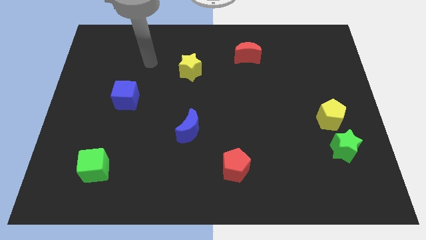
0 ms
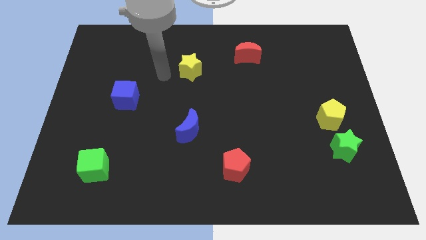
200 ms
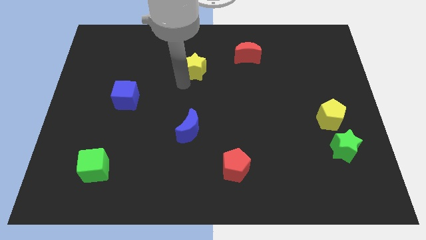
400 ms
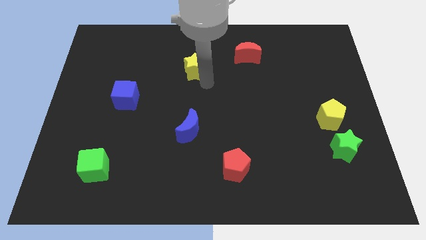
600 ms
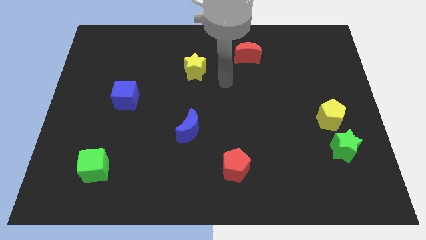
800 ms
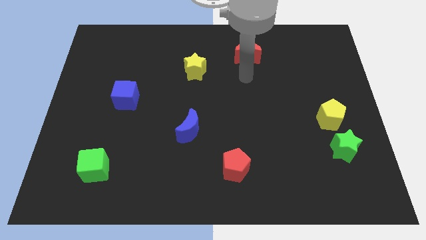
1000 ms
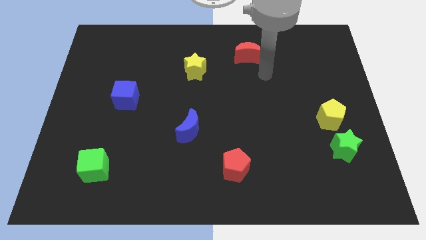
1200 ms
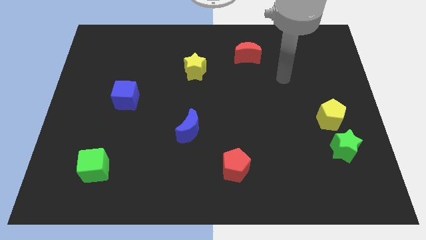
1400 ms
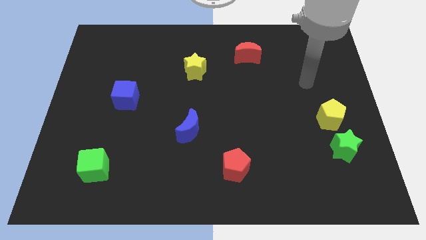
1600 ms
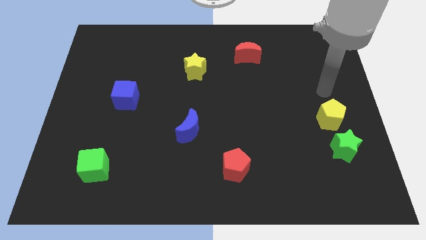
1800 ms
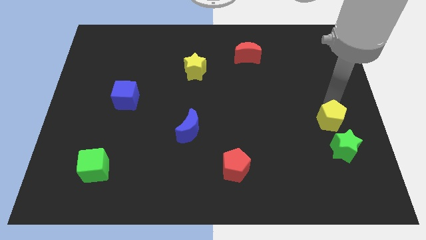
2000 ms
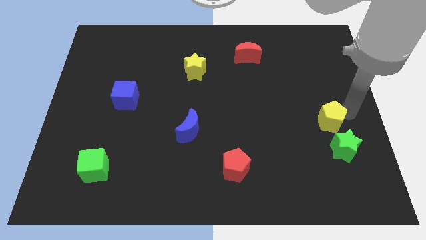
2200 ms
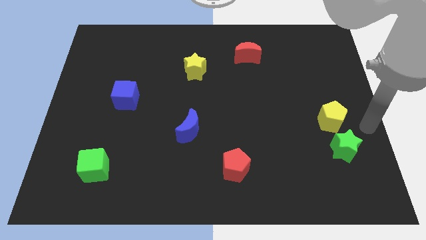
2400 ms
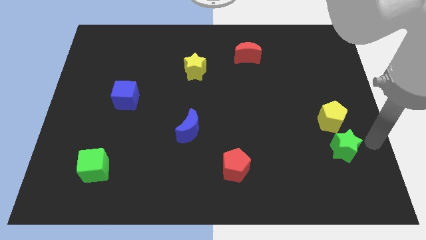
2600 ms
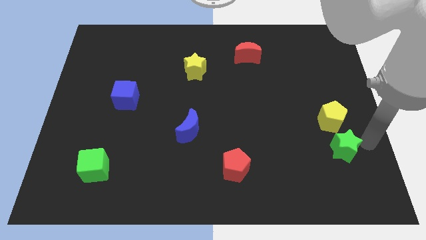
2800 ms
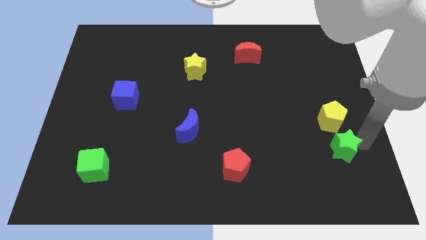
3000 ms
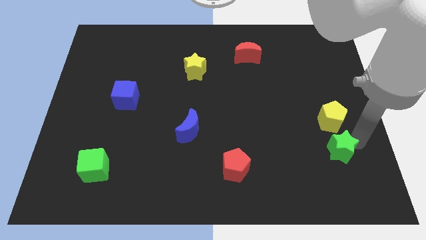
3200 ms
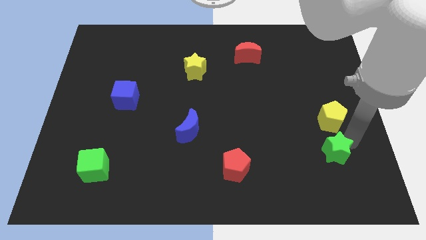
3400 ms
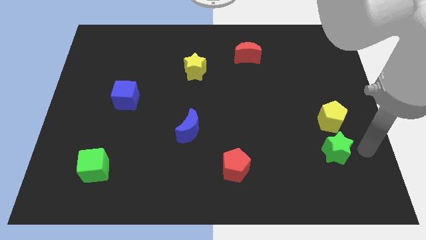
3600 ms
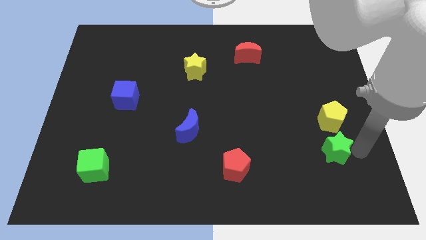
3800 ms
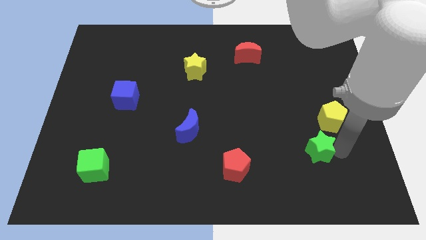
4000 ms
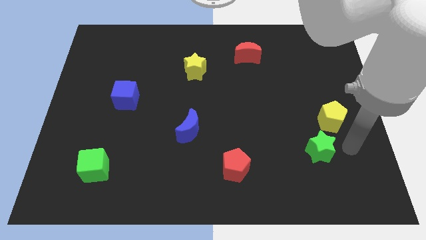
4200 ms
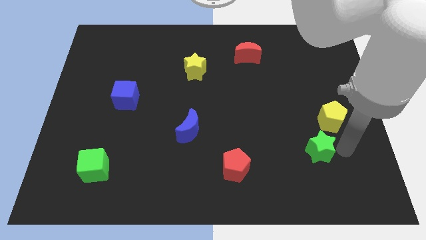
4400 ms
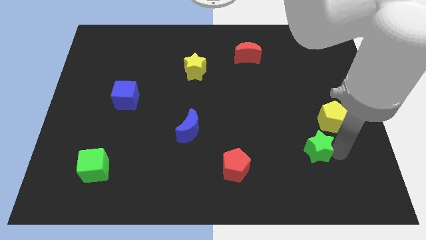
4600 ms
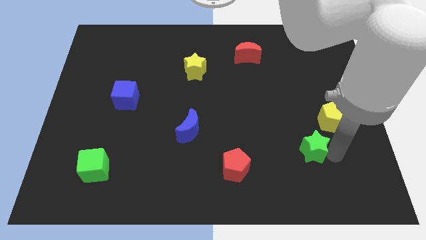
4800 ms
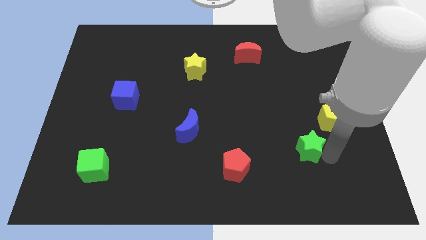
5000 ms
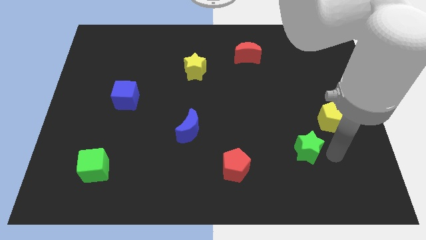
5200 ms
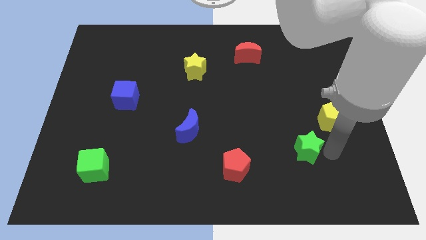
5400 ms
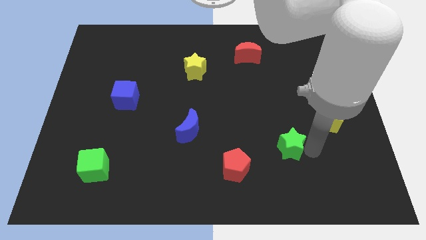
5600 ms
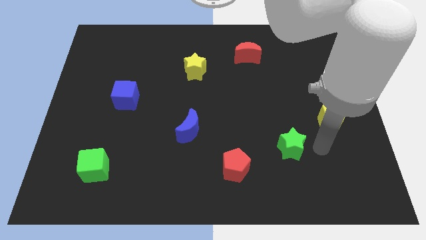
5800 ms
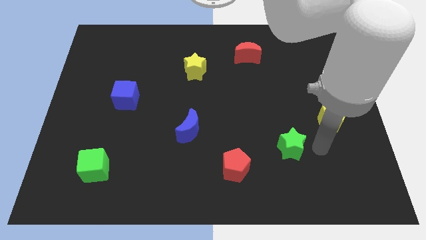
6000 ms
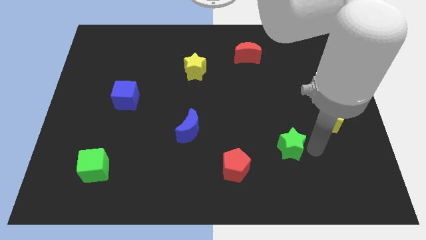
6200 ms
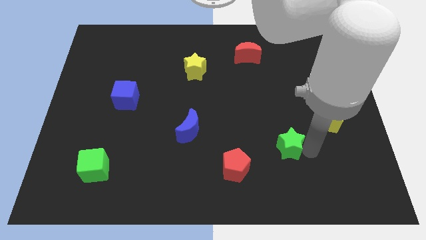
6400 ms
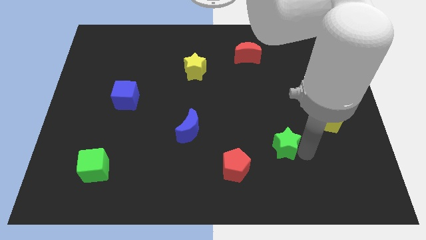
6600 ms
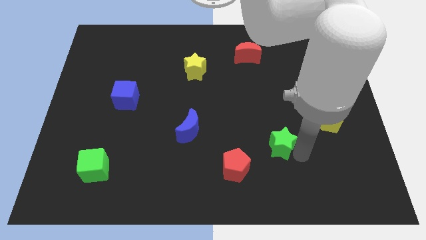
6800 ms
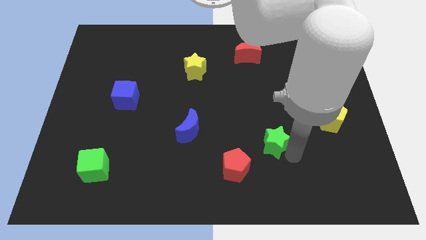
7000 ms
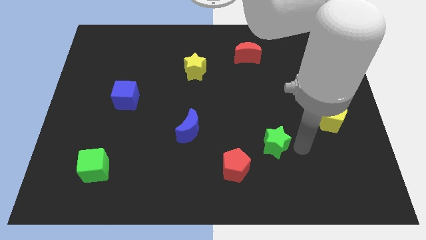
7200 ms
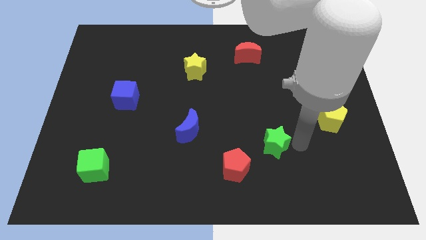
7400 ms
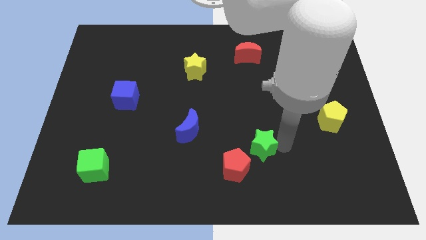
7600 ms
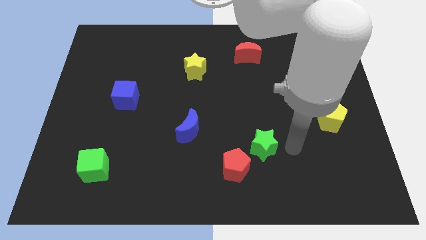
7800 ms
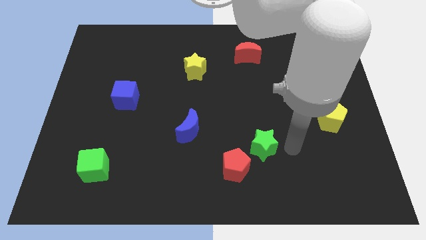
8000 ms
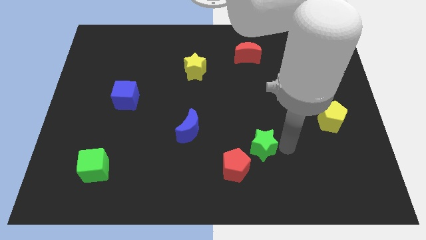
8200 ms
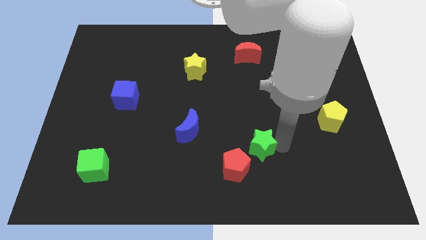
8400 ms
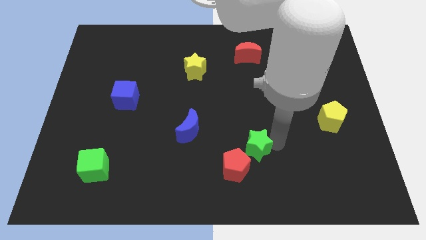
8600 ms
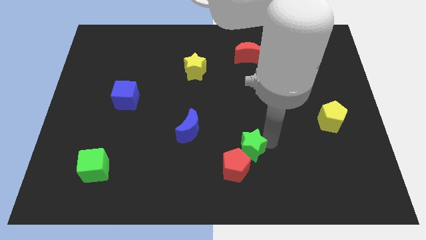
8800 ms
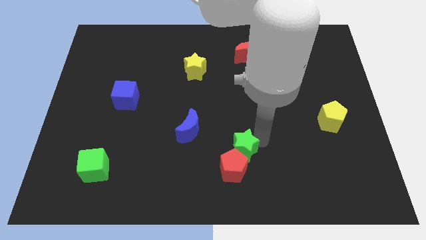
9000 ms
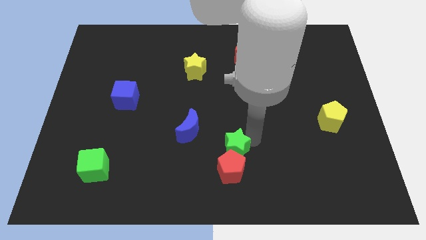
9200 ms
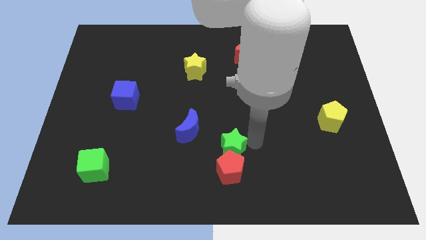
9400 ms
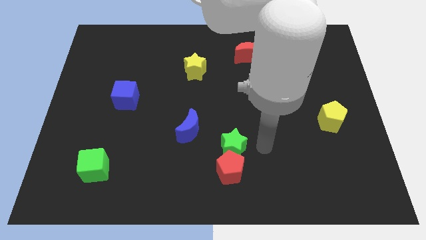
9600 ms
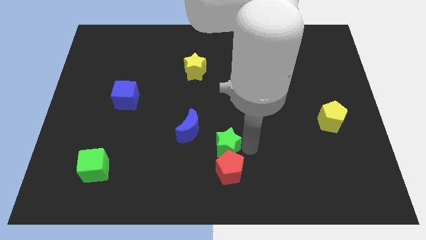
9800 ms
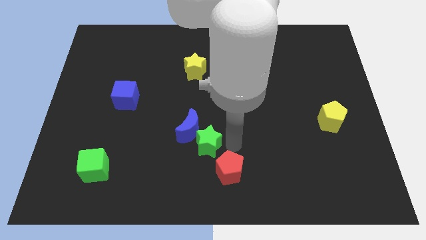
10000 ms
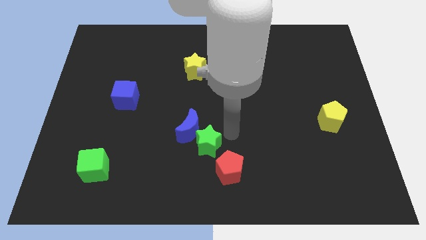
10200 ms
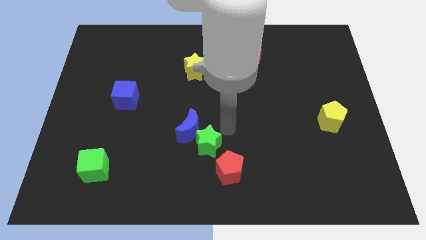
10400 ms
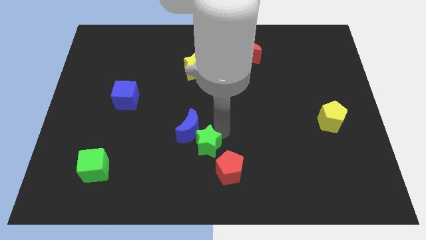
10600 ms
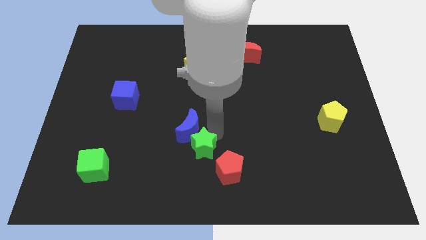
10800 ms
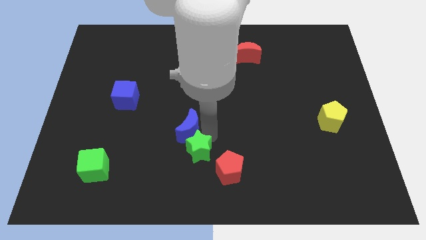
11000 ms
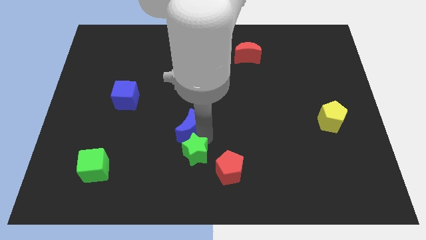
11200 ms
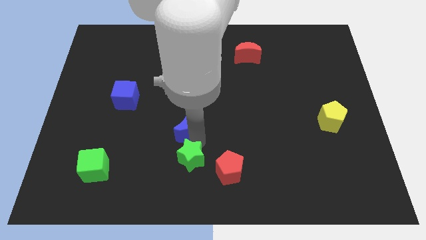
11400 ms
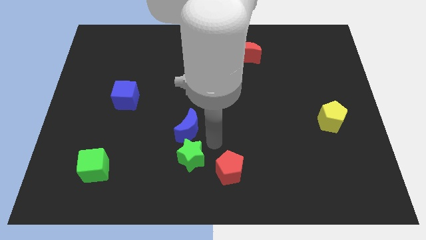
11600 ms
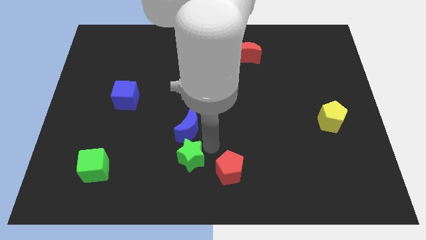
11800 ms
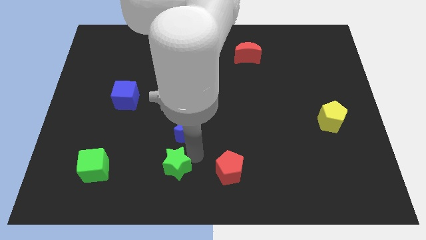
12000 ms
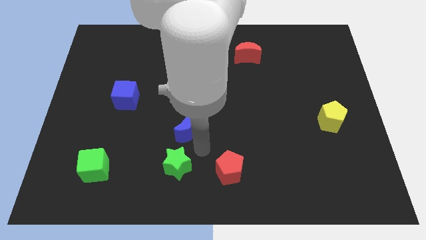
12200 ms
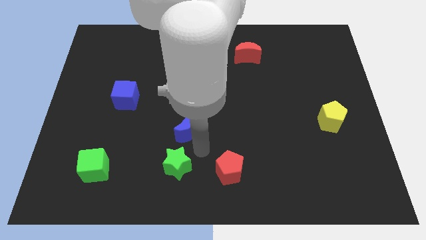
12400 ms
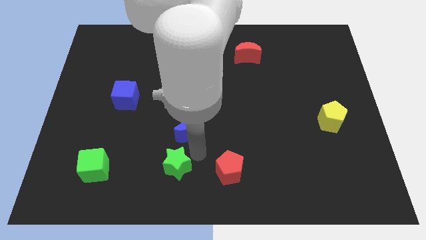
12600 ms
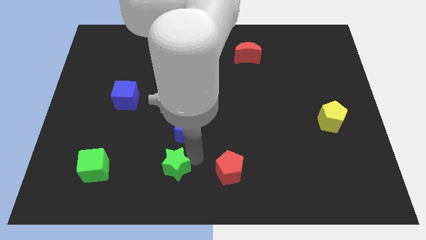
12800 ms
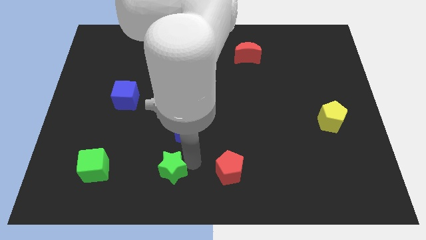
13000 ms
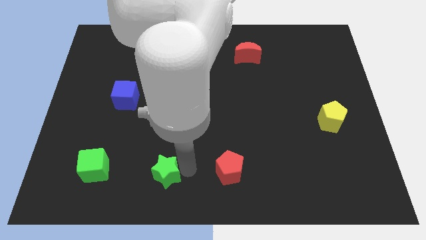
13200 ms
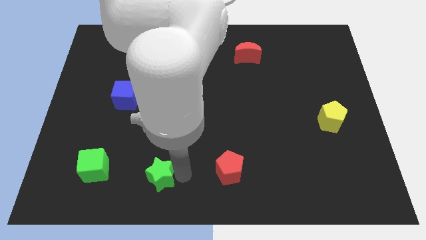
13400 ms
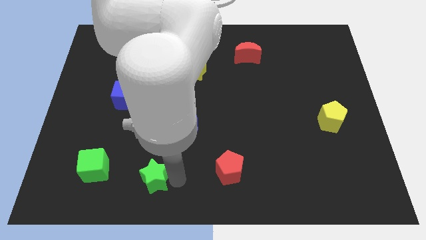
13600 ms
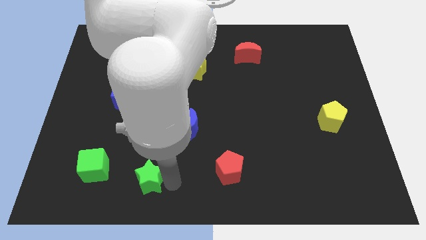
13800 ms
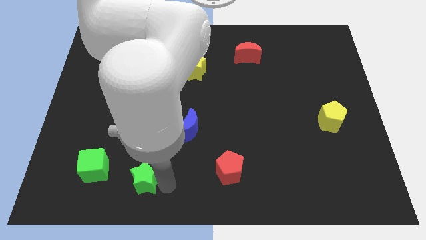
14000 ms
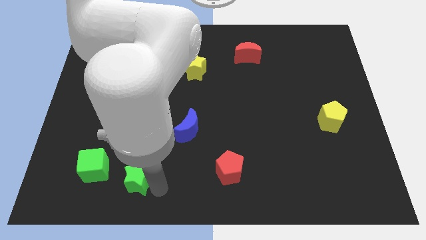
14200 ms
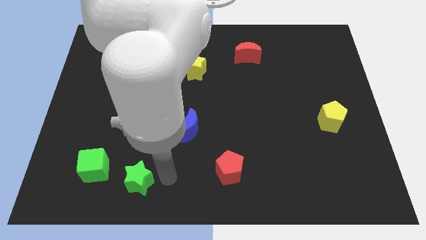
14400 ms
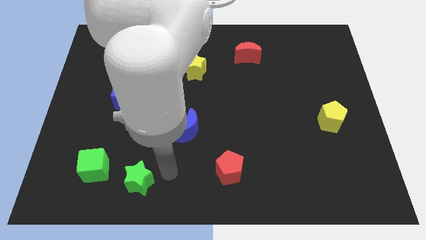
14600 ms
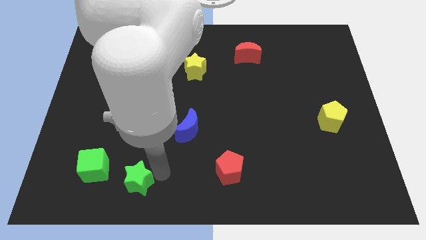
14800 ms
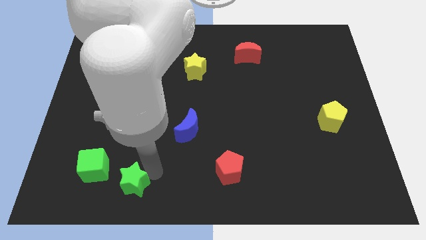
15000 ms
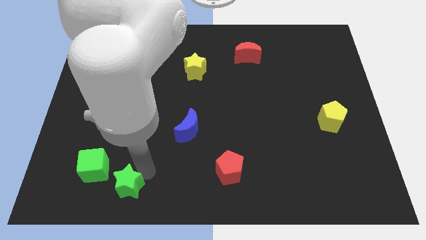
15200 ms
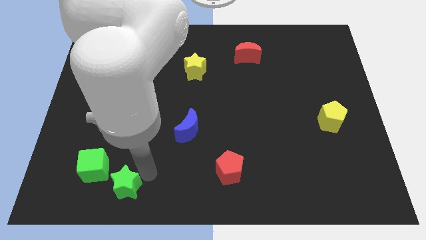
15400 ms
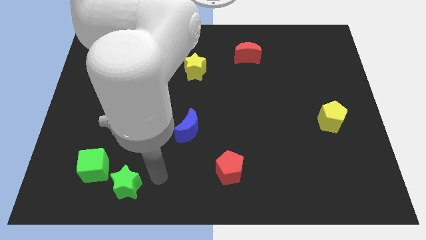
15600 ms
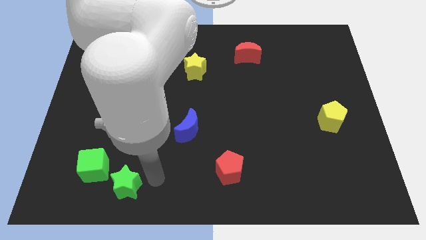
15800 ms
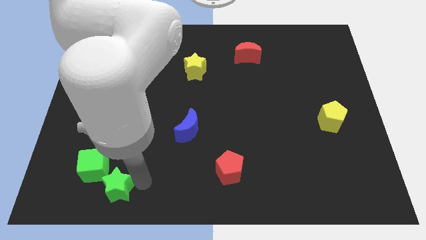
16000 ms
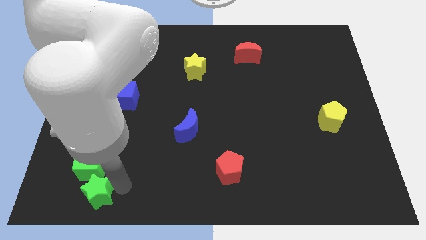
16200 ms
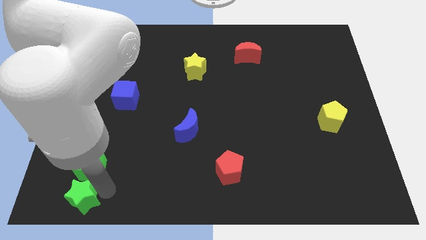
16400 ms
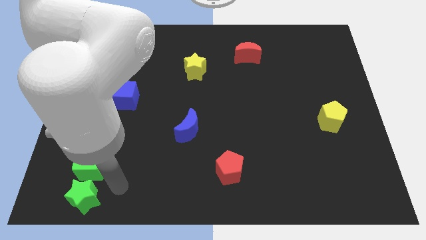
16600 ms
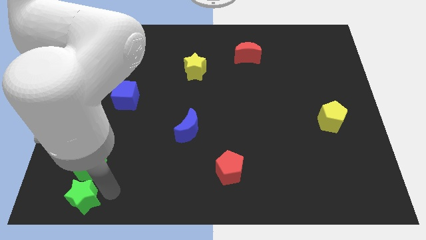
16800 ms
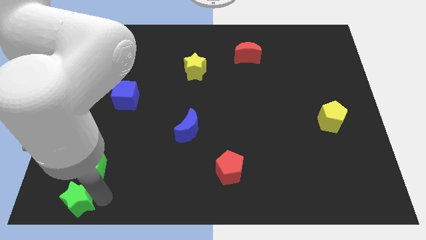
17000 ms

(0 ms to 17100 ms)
put the green star to the lower left corner
